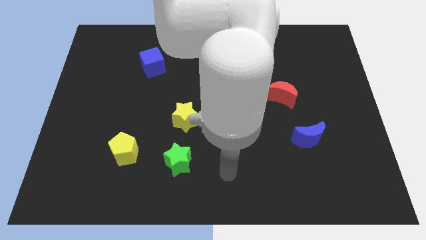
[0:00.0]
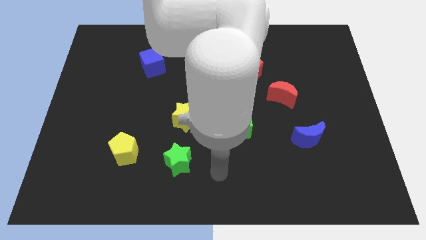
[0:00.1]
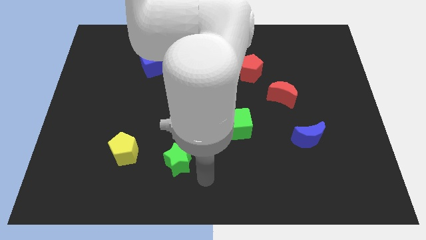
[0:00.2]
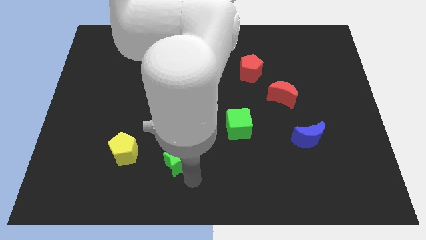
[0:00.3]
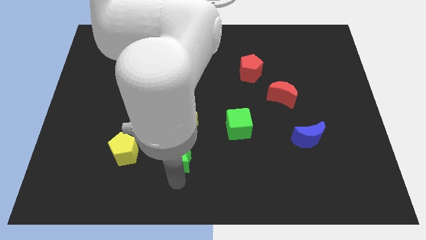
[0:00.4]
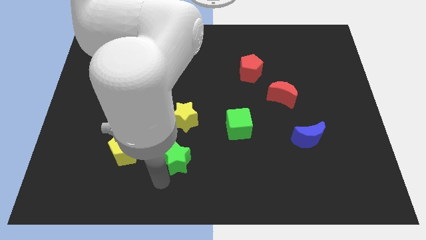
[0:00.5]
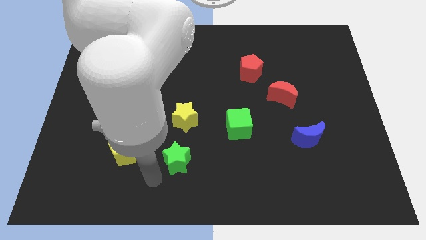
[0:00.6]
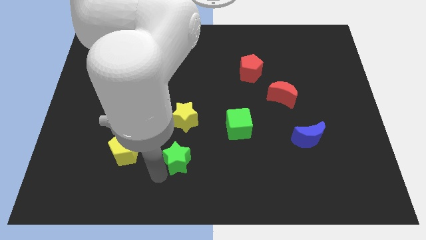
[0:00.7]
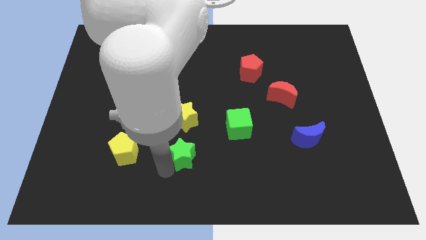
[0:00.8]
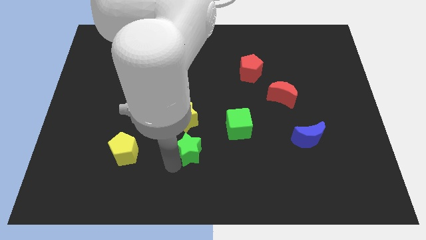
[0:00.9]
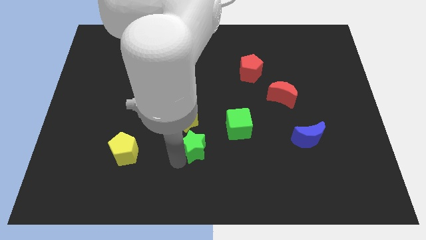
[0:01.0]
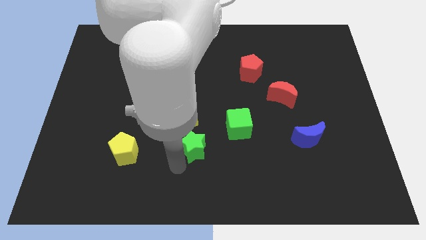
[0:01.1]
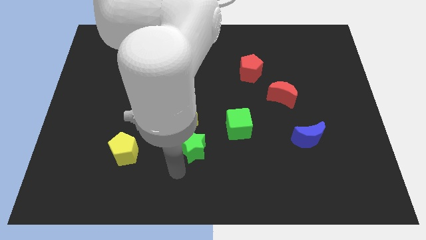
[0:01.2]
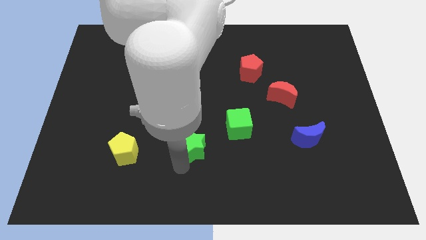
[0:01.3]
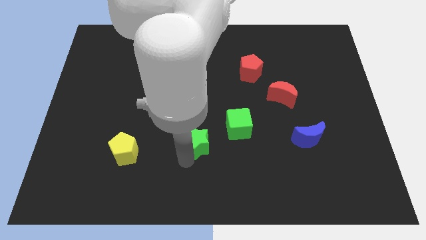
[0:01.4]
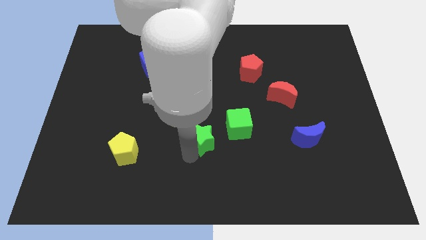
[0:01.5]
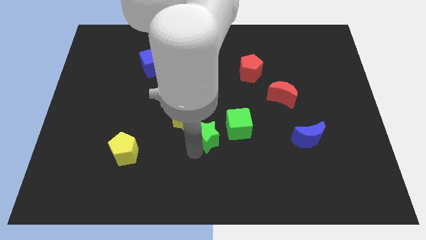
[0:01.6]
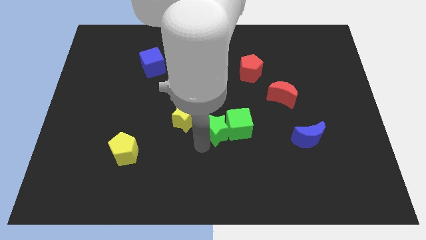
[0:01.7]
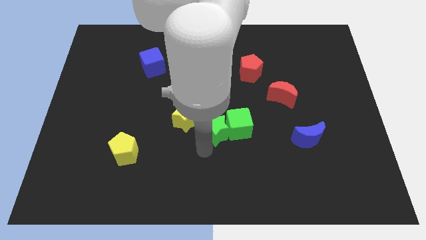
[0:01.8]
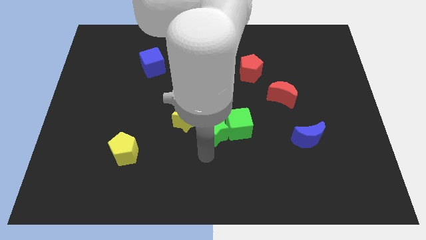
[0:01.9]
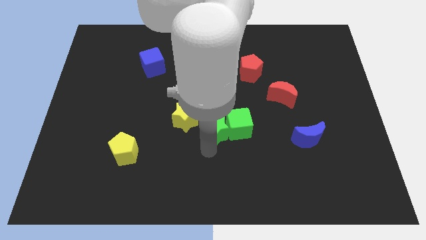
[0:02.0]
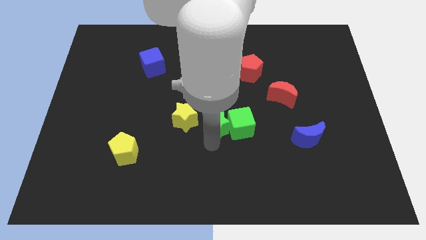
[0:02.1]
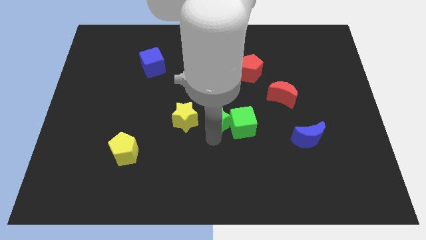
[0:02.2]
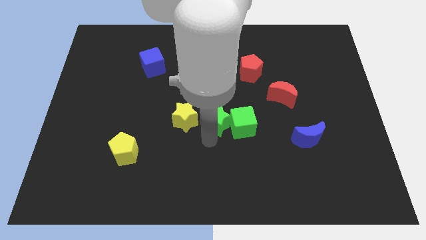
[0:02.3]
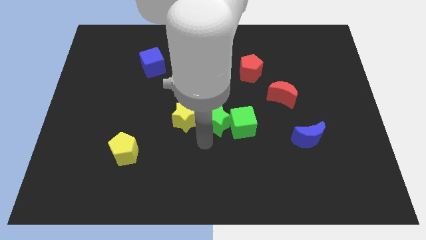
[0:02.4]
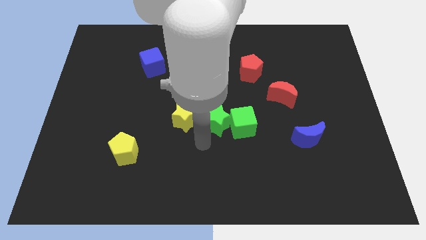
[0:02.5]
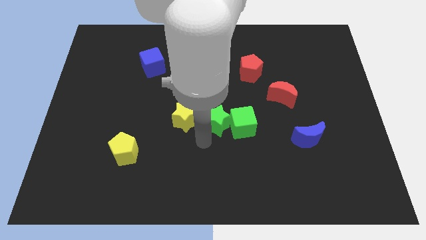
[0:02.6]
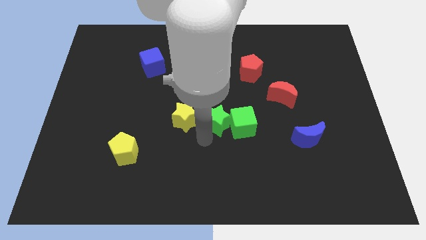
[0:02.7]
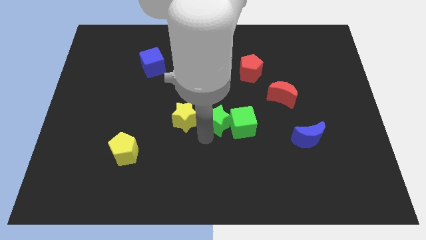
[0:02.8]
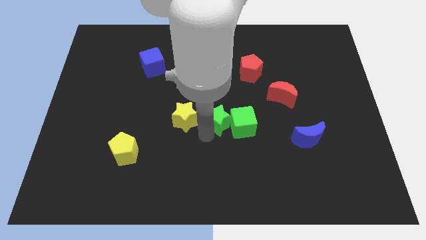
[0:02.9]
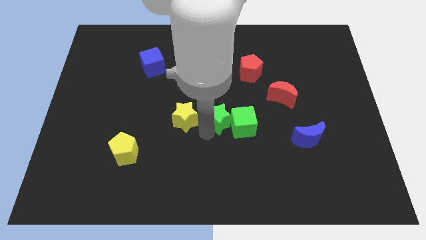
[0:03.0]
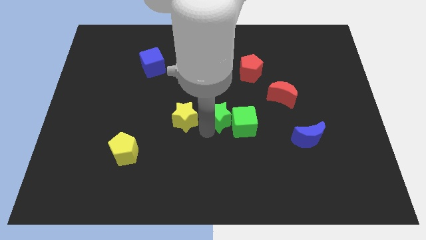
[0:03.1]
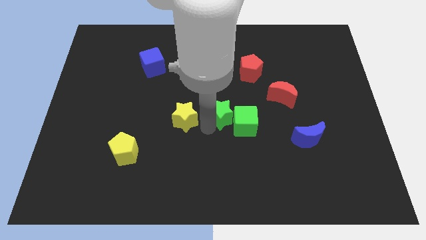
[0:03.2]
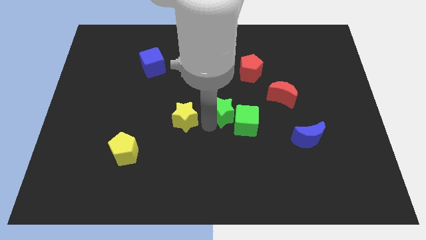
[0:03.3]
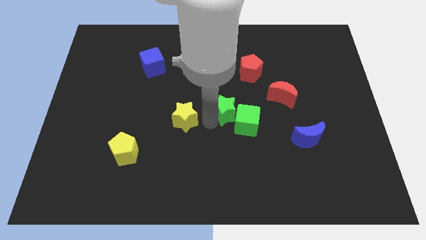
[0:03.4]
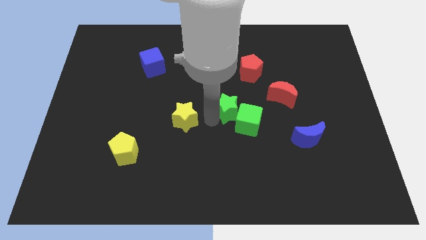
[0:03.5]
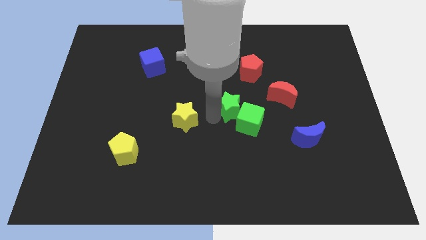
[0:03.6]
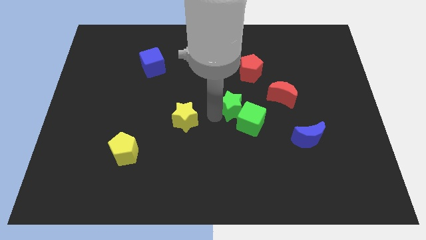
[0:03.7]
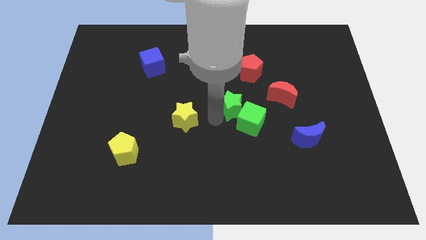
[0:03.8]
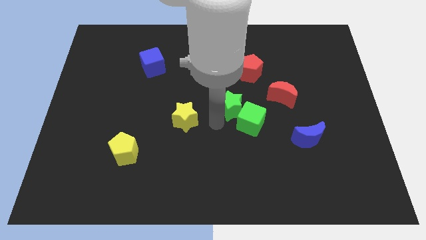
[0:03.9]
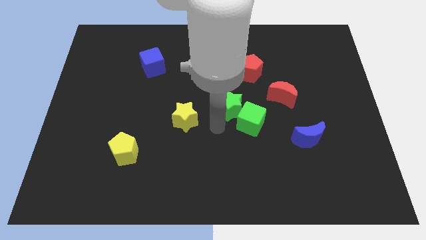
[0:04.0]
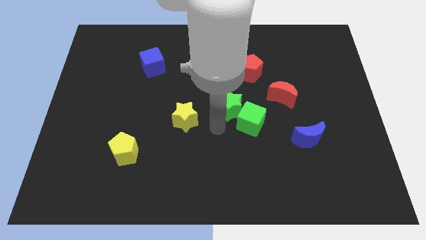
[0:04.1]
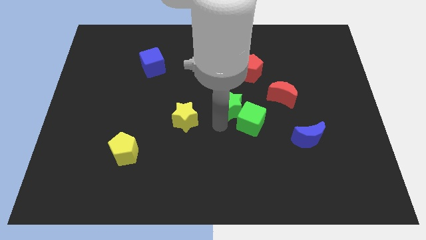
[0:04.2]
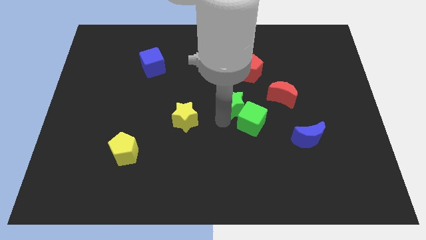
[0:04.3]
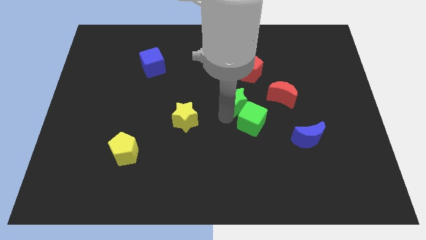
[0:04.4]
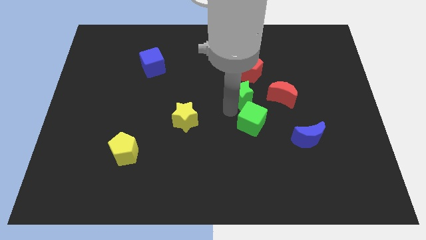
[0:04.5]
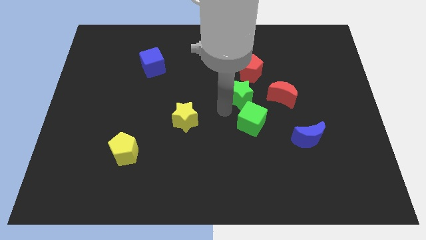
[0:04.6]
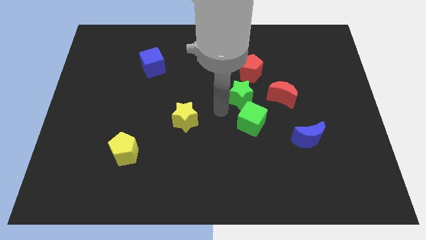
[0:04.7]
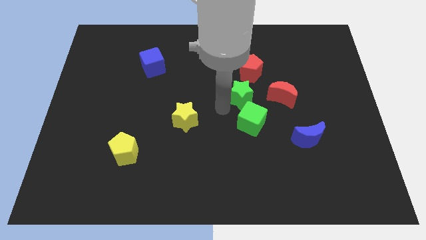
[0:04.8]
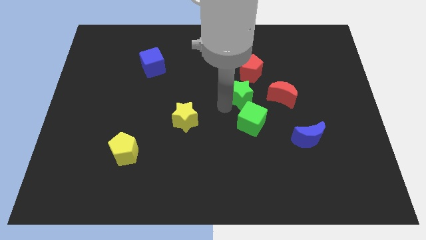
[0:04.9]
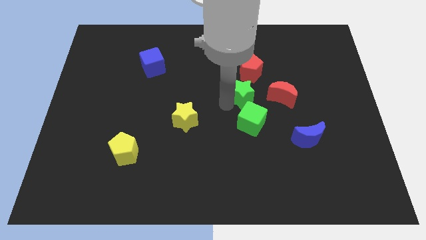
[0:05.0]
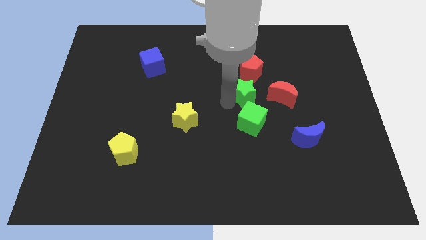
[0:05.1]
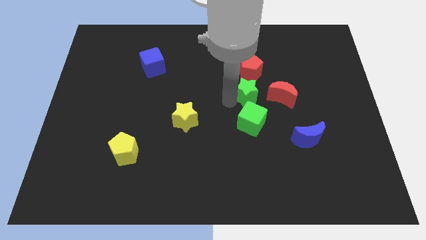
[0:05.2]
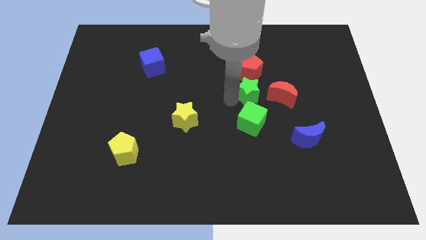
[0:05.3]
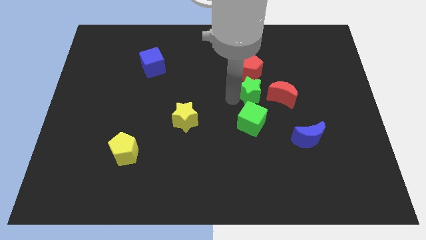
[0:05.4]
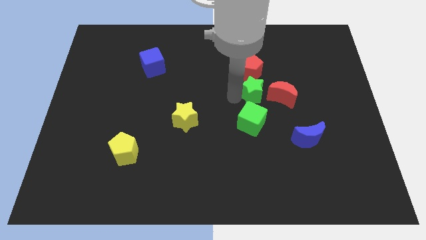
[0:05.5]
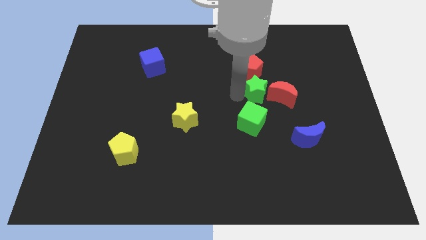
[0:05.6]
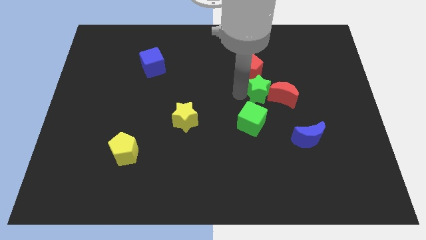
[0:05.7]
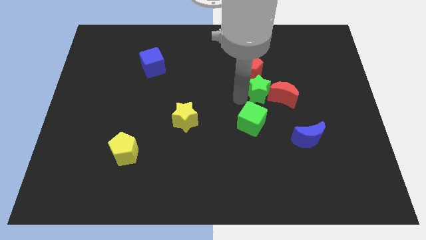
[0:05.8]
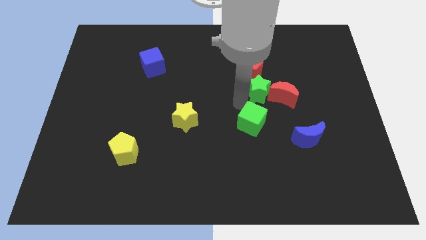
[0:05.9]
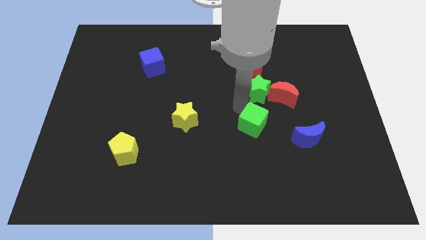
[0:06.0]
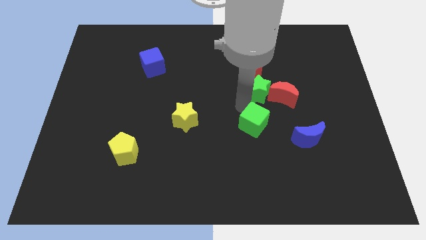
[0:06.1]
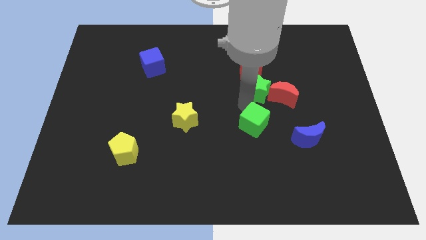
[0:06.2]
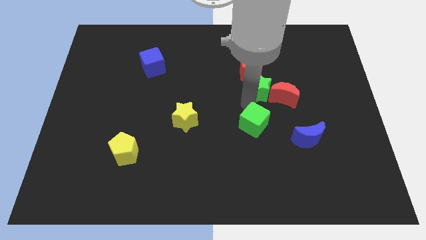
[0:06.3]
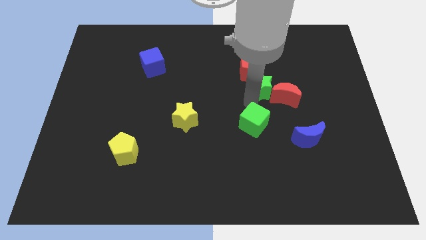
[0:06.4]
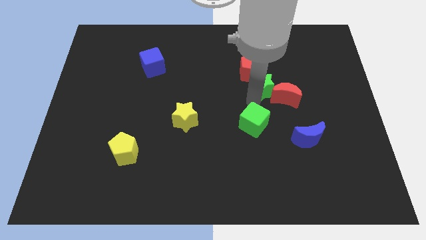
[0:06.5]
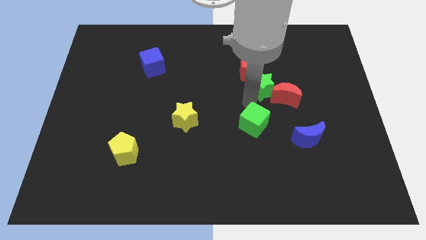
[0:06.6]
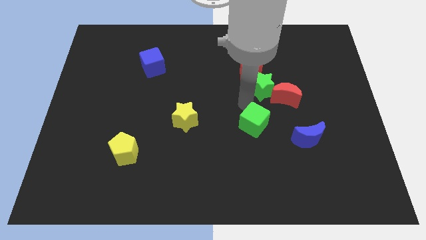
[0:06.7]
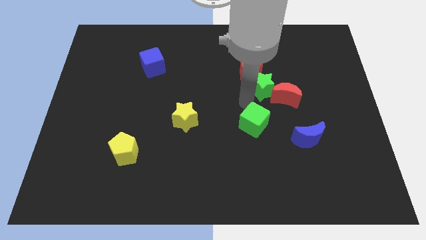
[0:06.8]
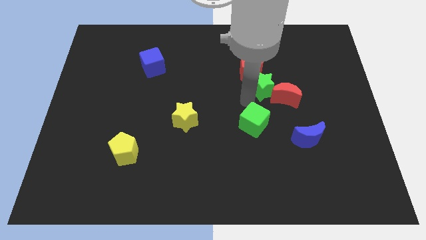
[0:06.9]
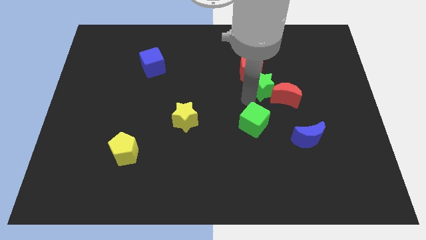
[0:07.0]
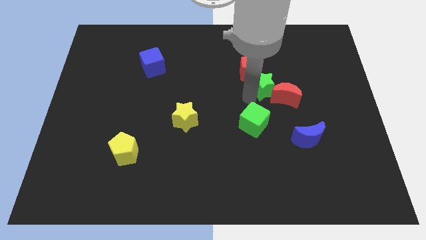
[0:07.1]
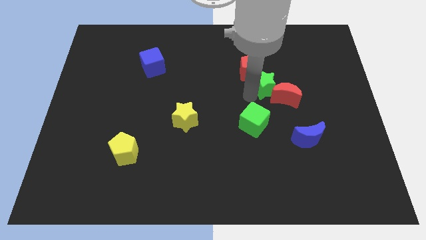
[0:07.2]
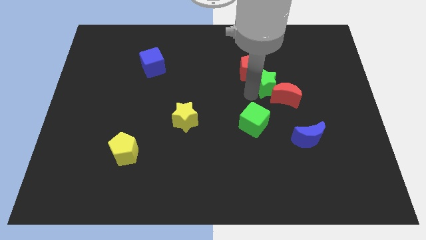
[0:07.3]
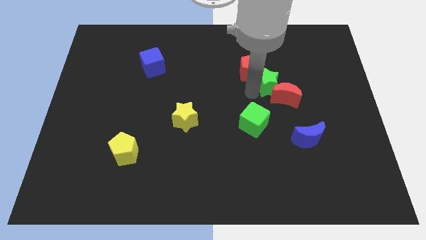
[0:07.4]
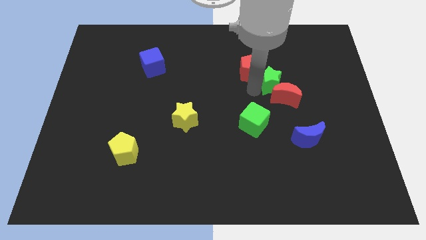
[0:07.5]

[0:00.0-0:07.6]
slide the green star just right of the red pentagon
